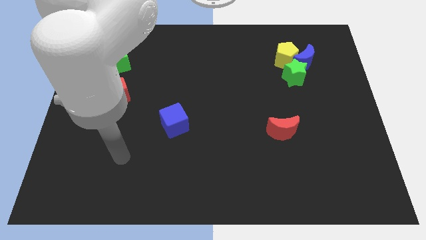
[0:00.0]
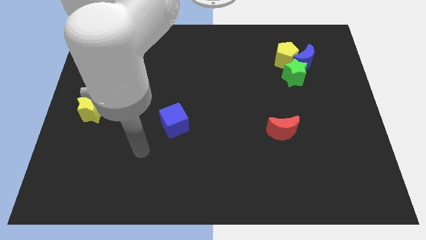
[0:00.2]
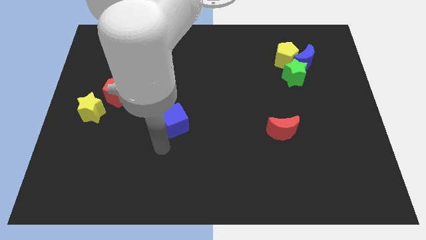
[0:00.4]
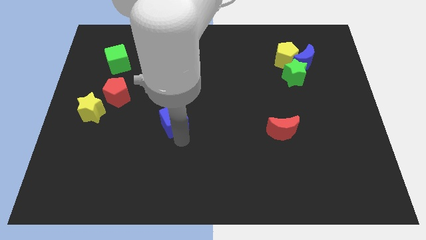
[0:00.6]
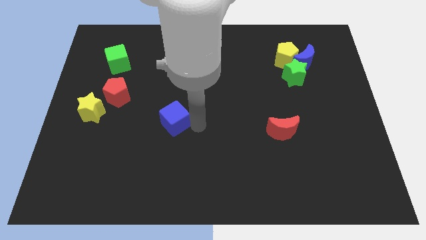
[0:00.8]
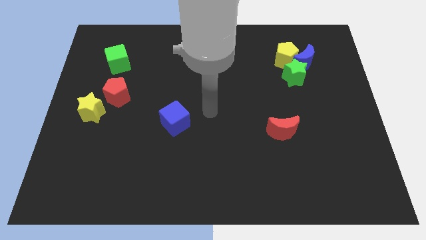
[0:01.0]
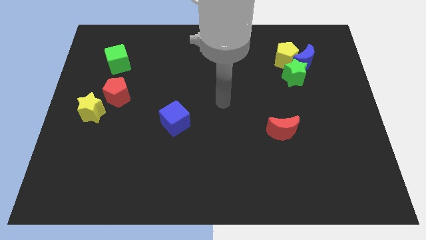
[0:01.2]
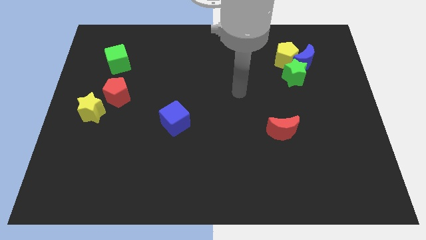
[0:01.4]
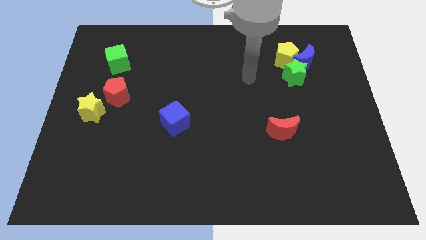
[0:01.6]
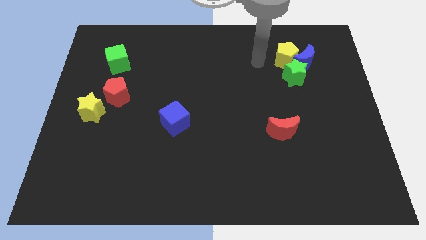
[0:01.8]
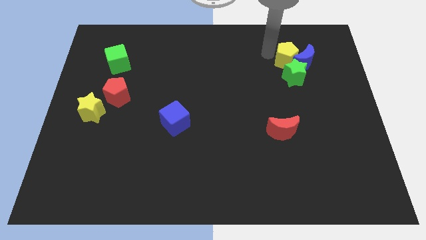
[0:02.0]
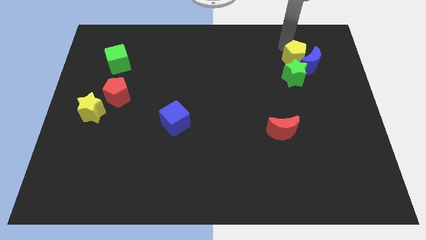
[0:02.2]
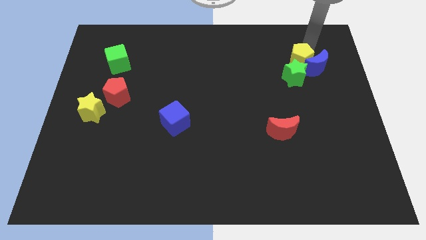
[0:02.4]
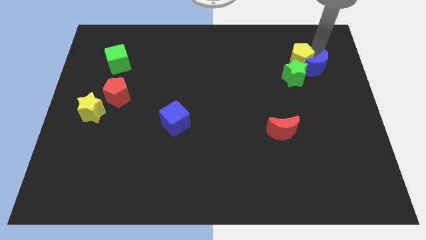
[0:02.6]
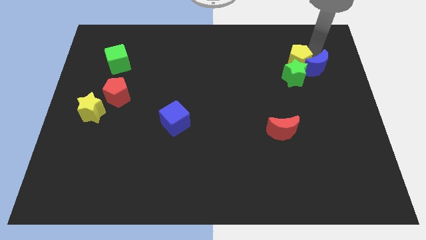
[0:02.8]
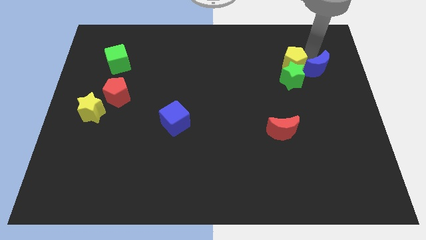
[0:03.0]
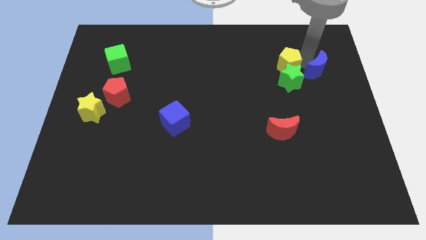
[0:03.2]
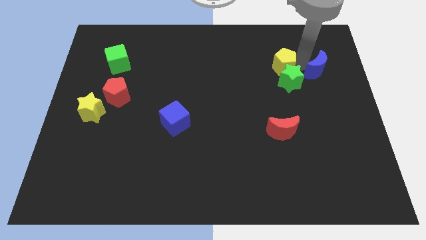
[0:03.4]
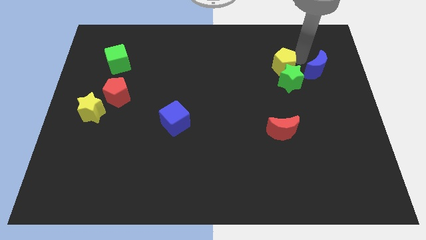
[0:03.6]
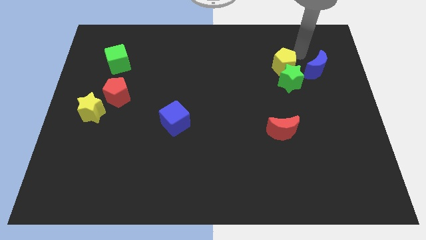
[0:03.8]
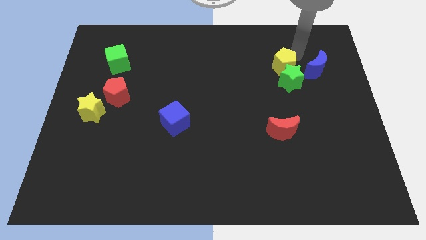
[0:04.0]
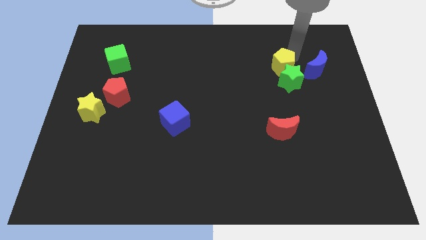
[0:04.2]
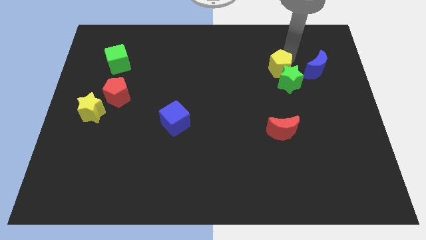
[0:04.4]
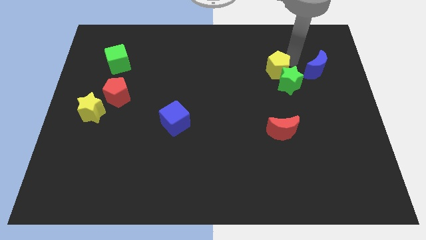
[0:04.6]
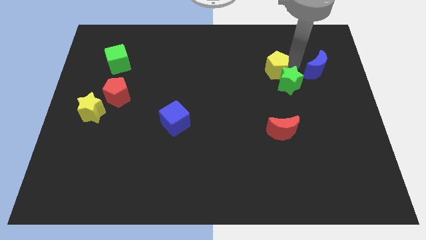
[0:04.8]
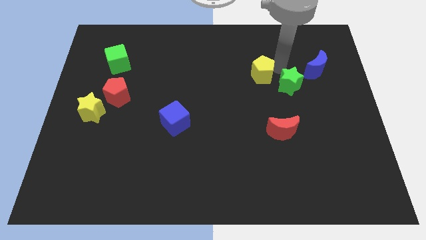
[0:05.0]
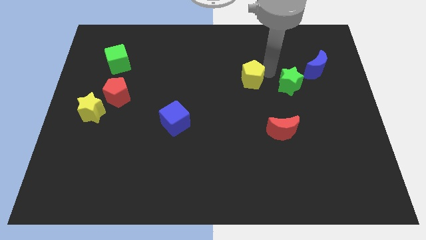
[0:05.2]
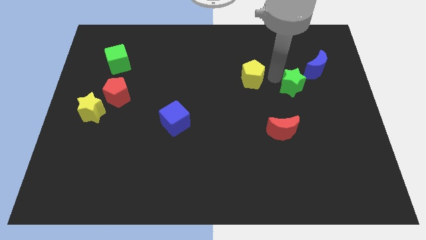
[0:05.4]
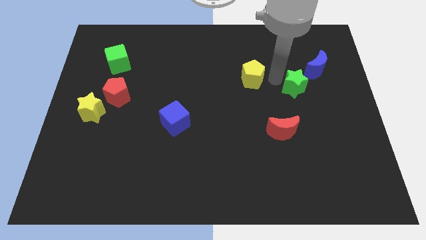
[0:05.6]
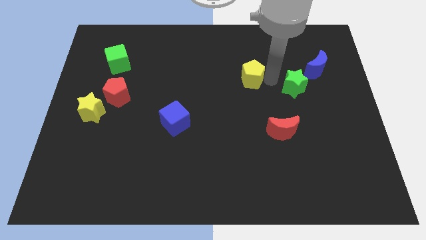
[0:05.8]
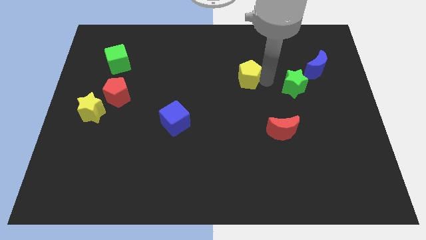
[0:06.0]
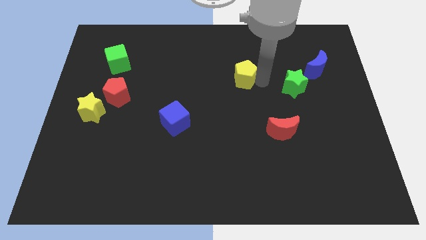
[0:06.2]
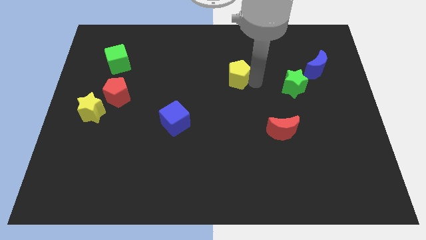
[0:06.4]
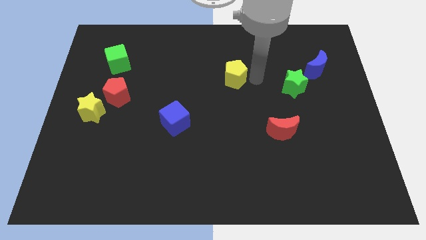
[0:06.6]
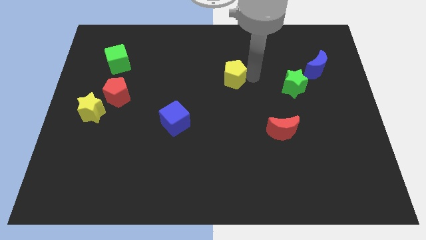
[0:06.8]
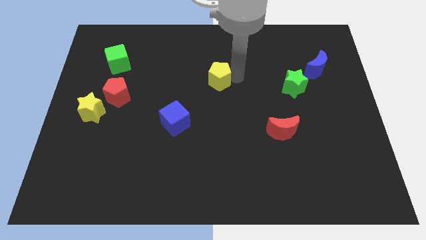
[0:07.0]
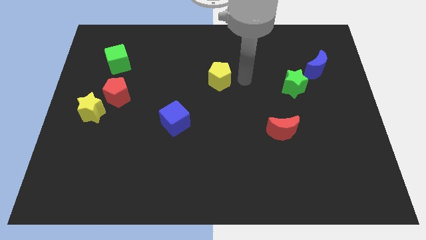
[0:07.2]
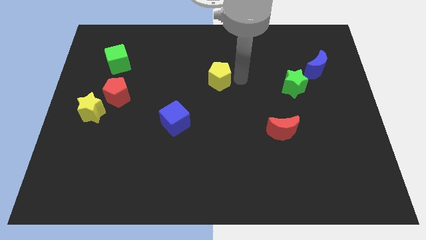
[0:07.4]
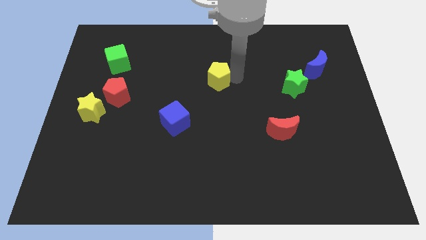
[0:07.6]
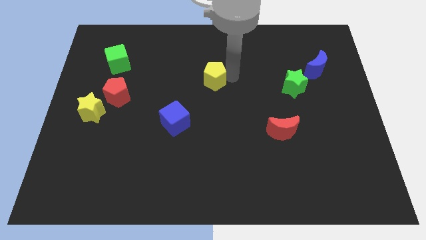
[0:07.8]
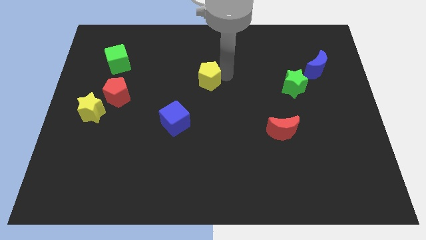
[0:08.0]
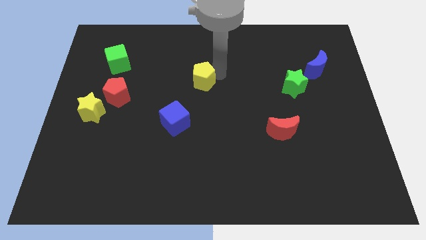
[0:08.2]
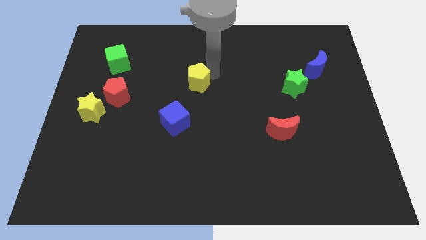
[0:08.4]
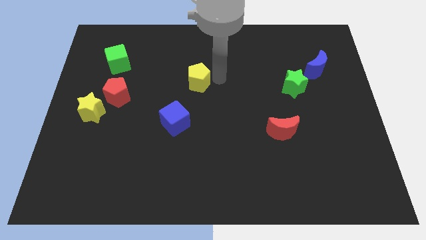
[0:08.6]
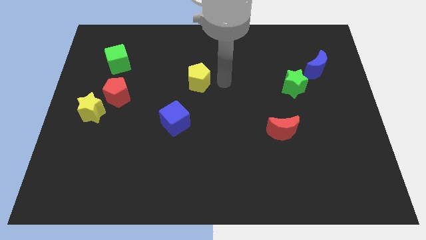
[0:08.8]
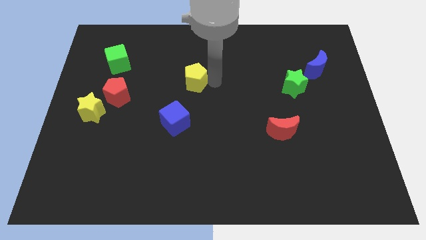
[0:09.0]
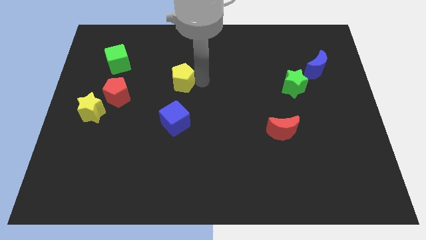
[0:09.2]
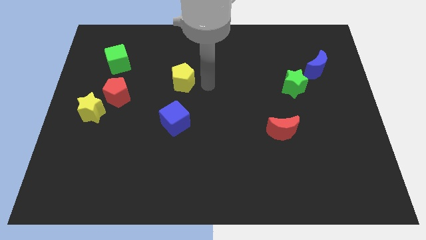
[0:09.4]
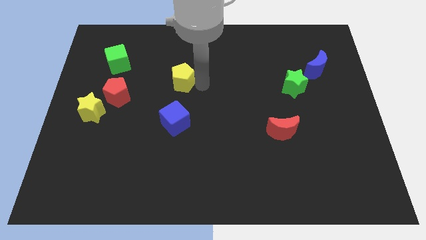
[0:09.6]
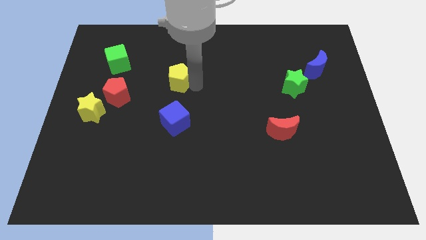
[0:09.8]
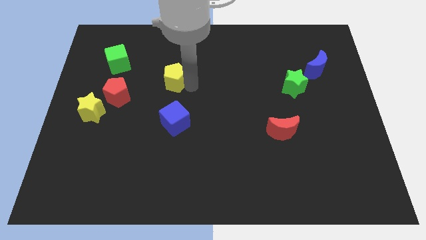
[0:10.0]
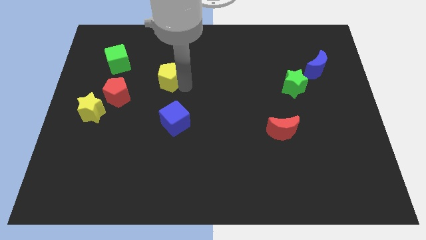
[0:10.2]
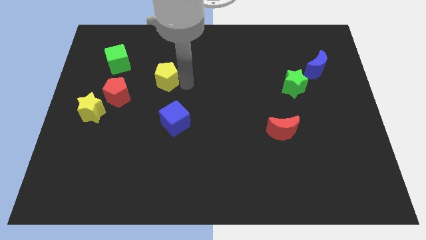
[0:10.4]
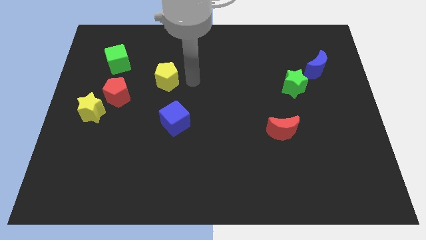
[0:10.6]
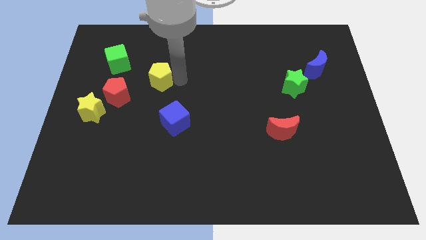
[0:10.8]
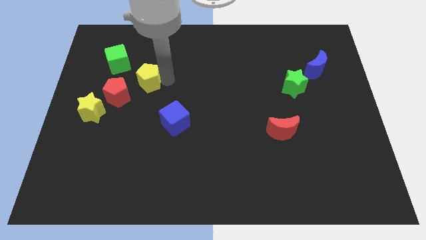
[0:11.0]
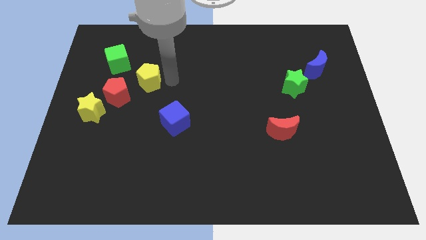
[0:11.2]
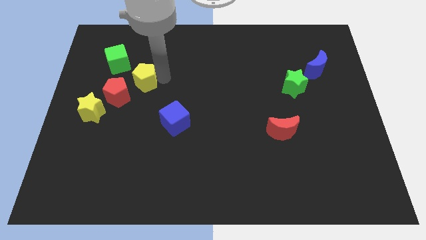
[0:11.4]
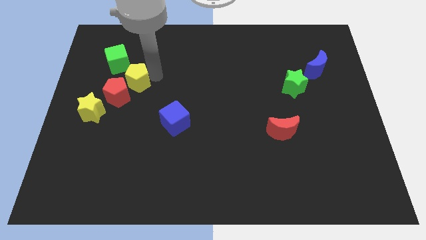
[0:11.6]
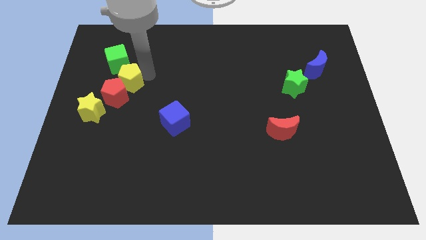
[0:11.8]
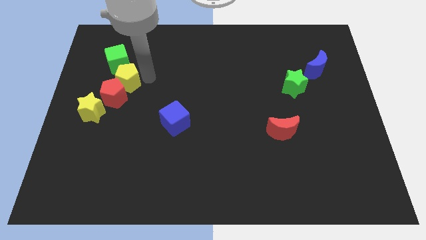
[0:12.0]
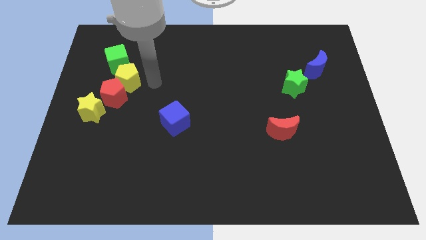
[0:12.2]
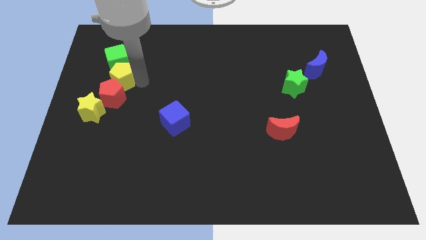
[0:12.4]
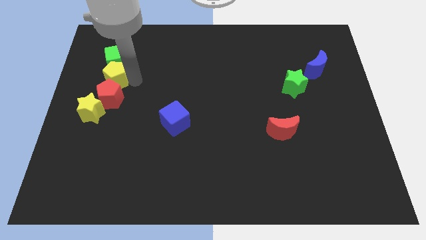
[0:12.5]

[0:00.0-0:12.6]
slide the yellow pentagon to the top side of the yellow star

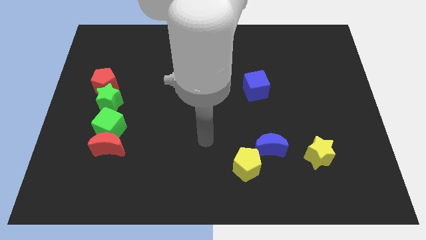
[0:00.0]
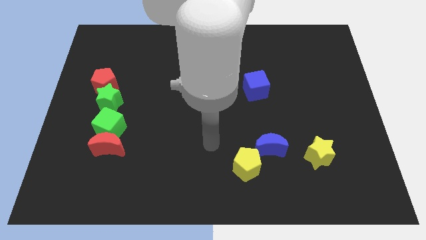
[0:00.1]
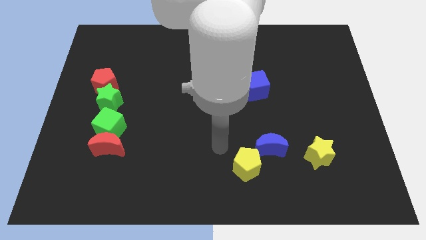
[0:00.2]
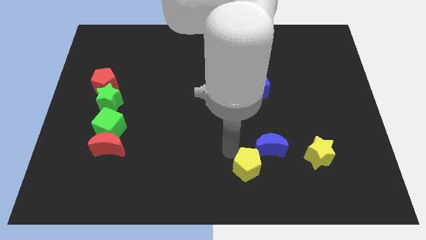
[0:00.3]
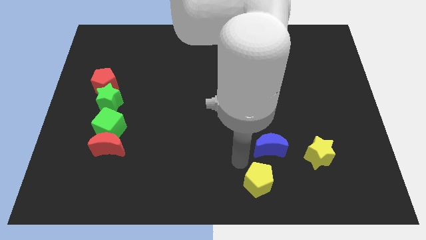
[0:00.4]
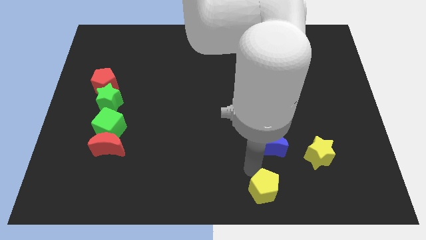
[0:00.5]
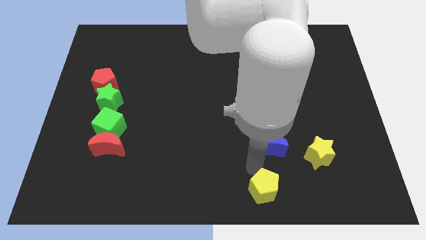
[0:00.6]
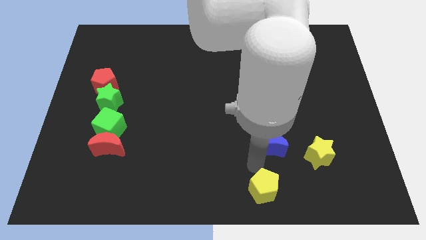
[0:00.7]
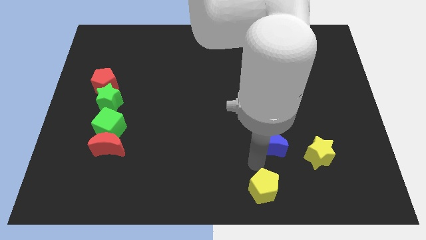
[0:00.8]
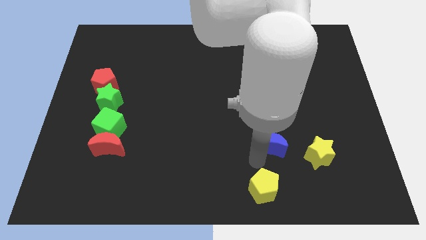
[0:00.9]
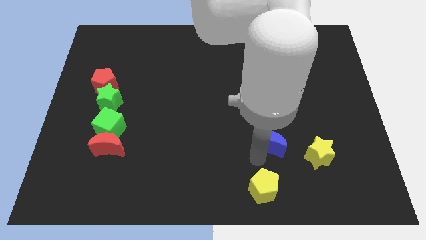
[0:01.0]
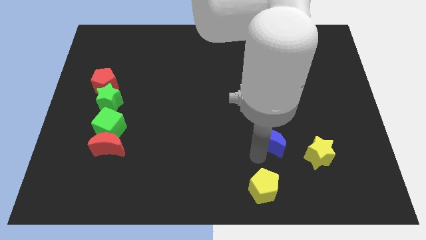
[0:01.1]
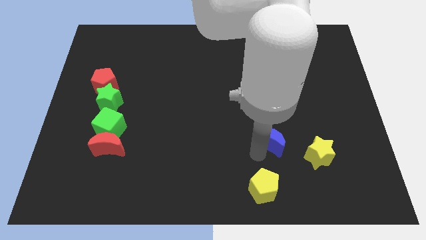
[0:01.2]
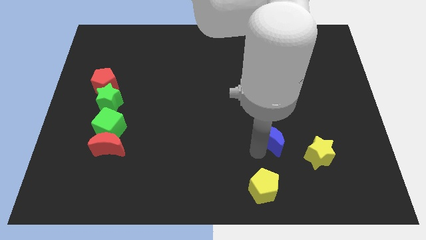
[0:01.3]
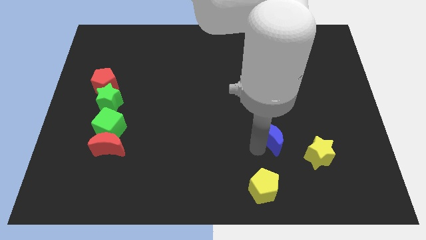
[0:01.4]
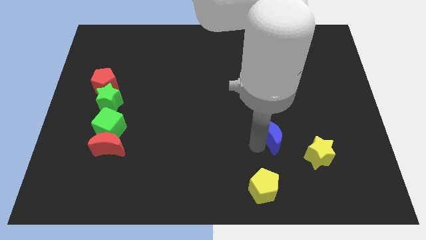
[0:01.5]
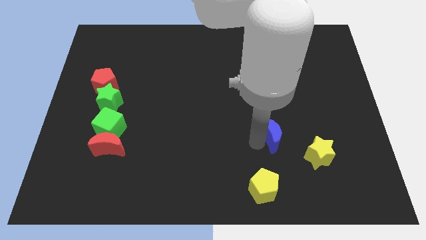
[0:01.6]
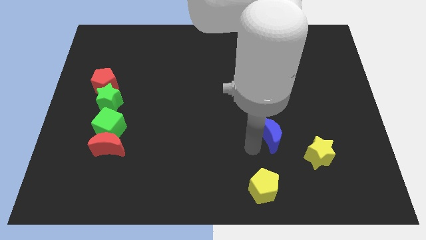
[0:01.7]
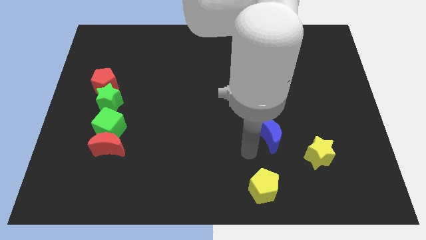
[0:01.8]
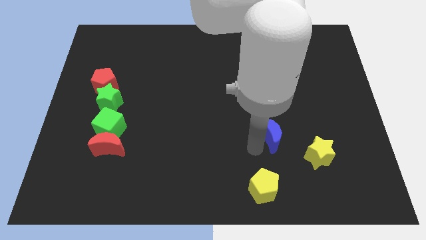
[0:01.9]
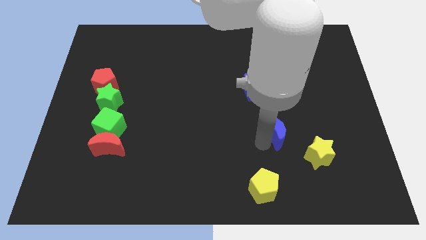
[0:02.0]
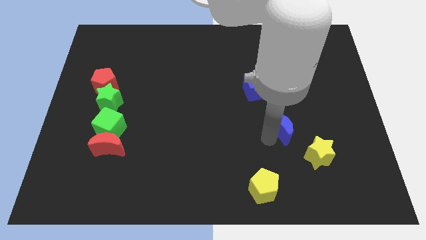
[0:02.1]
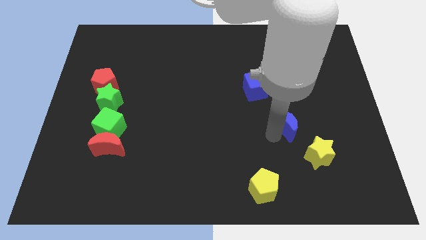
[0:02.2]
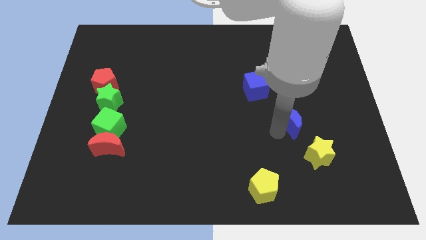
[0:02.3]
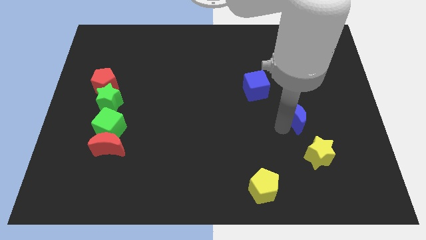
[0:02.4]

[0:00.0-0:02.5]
put the blue moon to the top of the yellow star
